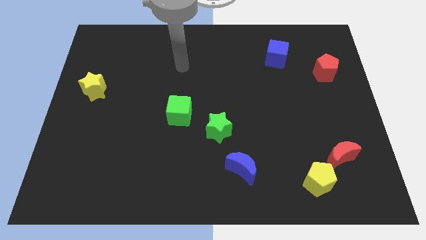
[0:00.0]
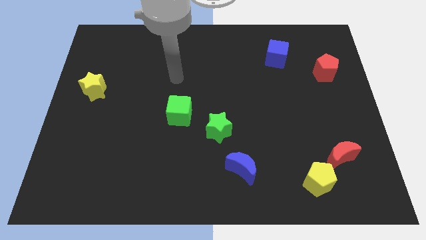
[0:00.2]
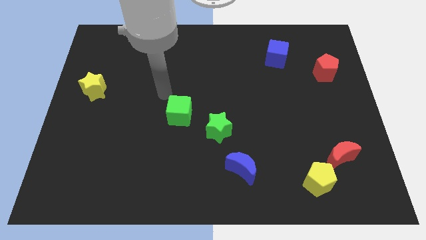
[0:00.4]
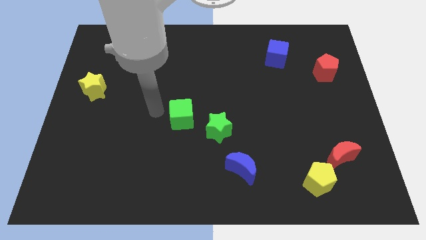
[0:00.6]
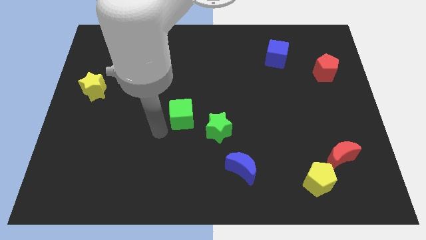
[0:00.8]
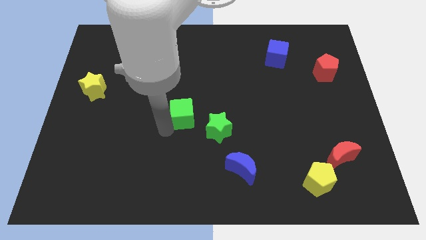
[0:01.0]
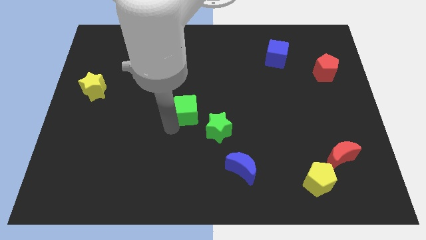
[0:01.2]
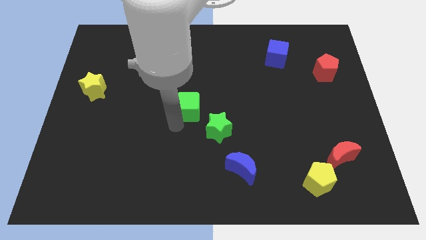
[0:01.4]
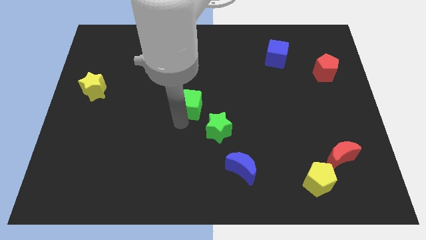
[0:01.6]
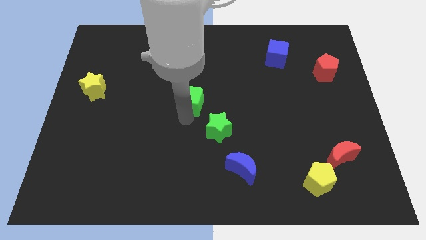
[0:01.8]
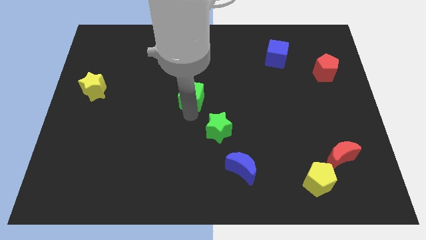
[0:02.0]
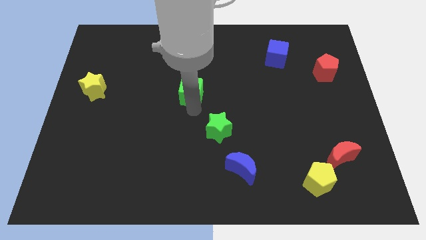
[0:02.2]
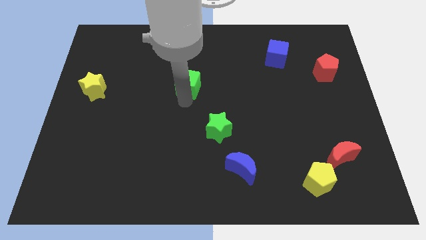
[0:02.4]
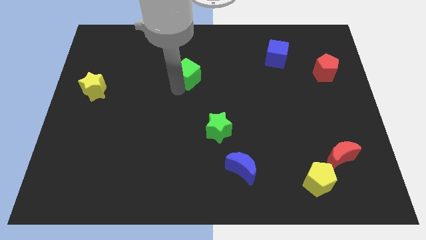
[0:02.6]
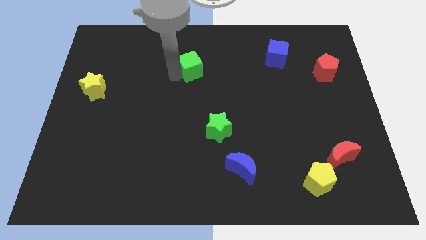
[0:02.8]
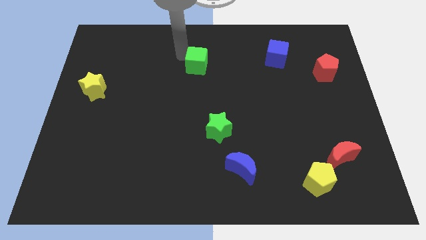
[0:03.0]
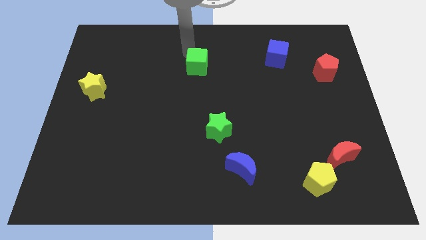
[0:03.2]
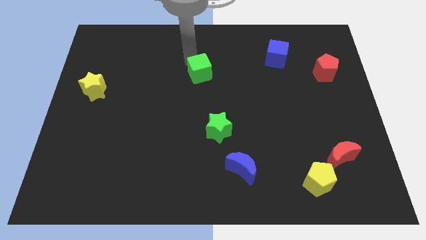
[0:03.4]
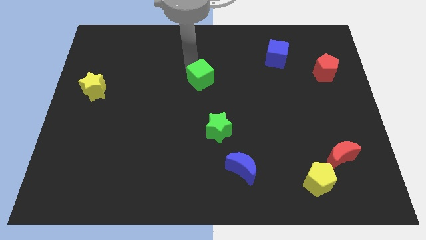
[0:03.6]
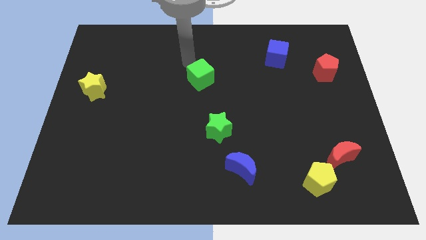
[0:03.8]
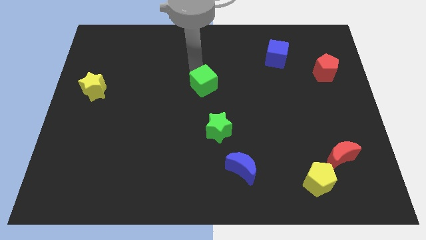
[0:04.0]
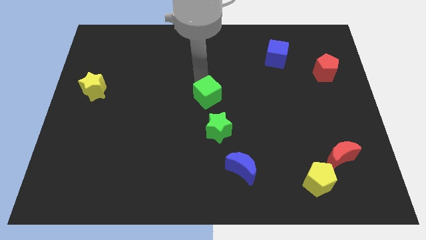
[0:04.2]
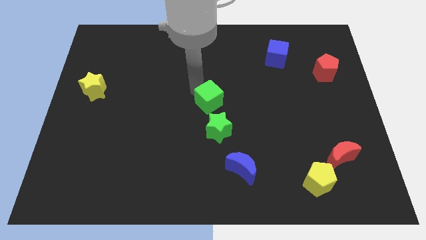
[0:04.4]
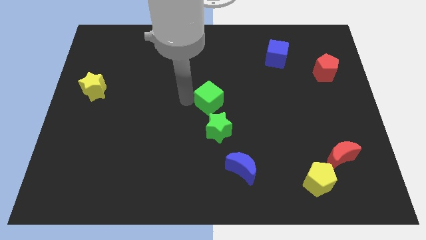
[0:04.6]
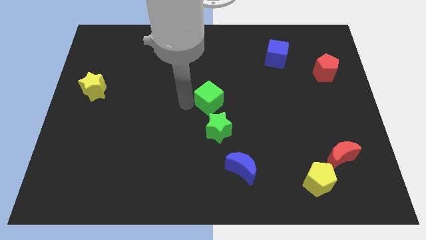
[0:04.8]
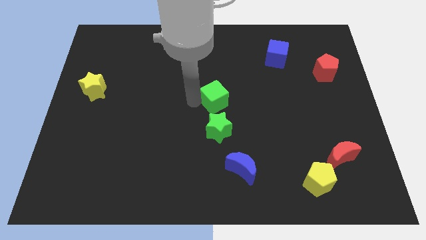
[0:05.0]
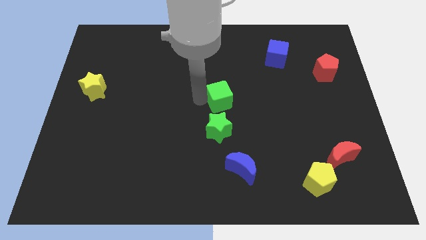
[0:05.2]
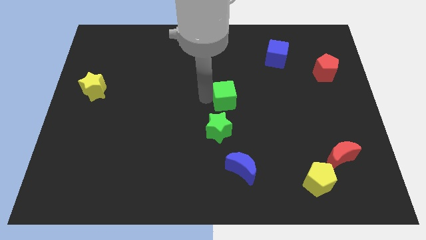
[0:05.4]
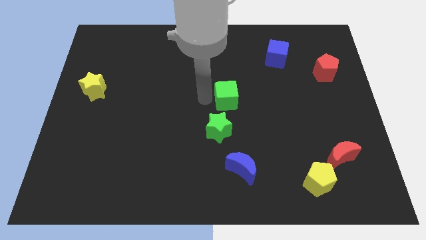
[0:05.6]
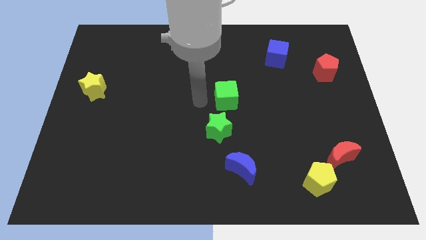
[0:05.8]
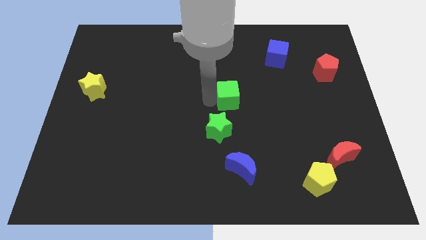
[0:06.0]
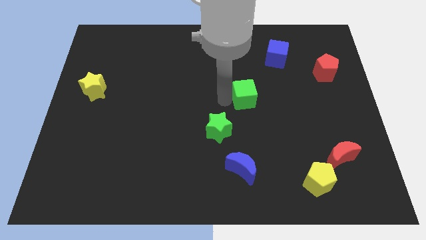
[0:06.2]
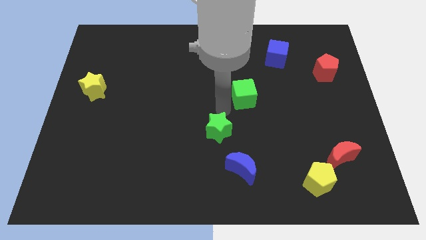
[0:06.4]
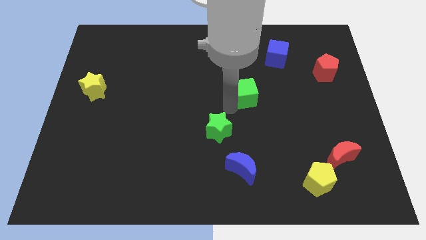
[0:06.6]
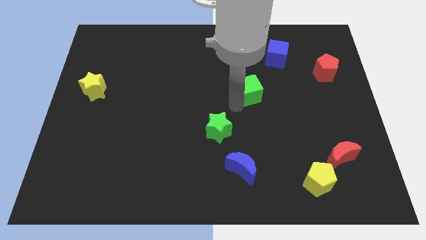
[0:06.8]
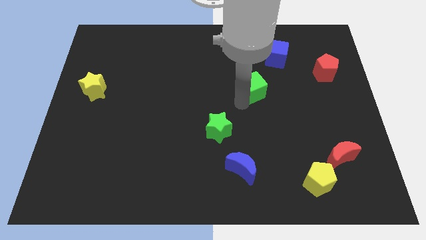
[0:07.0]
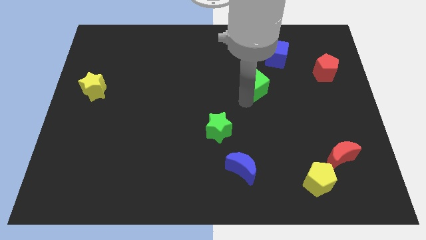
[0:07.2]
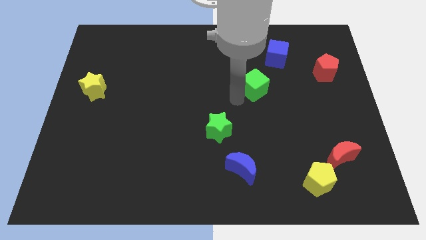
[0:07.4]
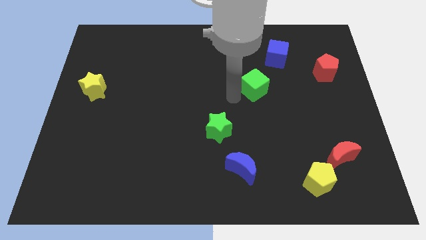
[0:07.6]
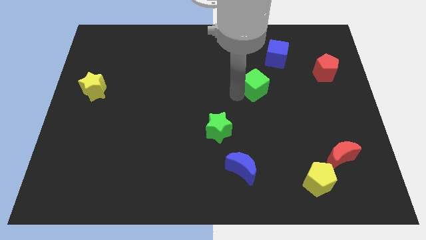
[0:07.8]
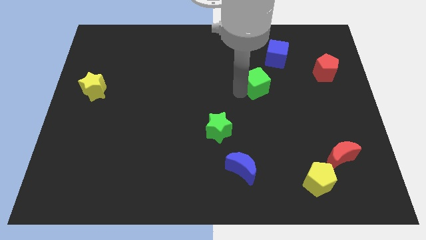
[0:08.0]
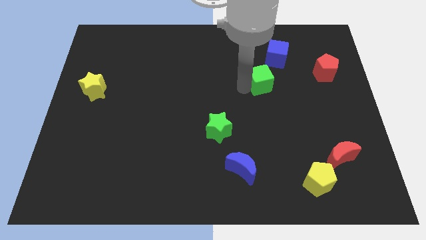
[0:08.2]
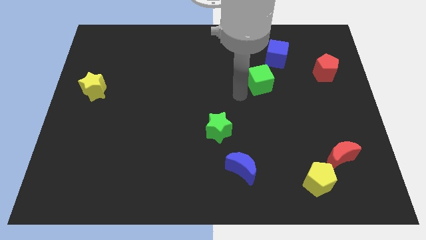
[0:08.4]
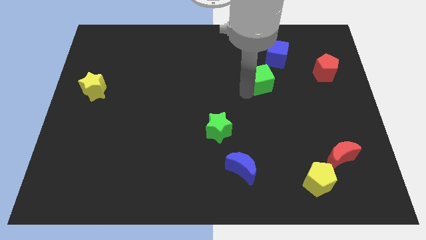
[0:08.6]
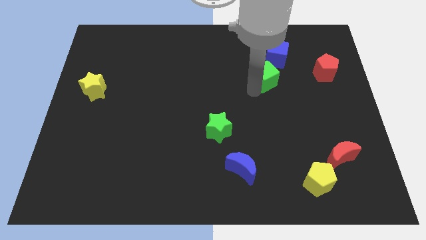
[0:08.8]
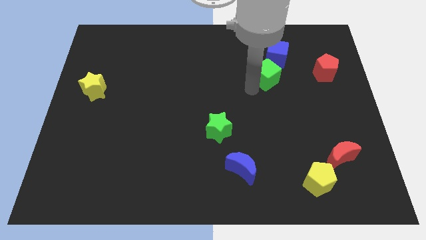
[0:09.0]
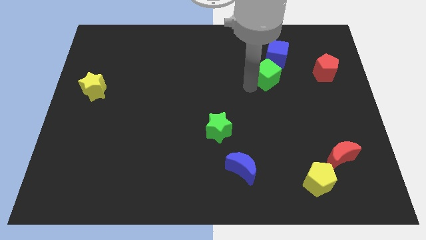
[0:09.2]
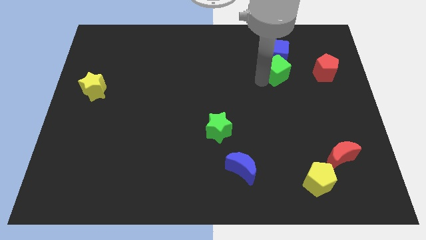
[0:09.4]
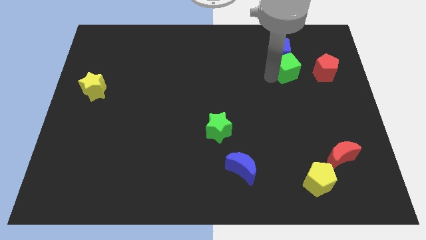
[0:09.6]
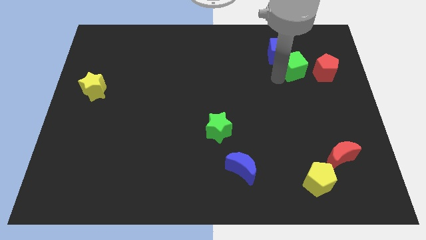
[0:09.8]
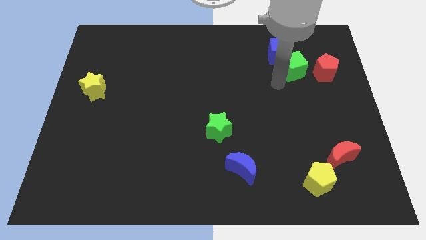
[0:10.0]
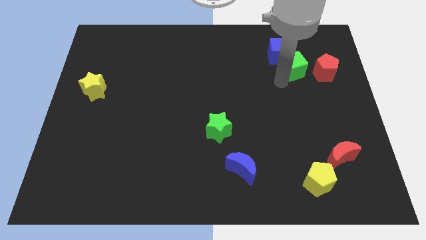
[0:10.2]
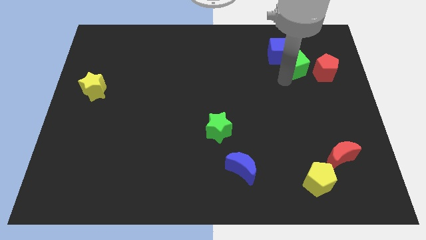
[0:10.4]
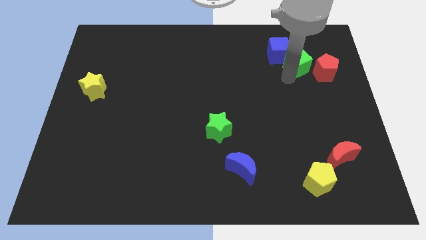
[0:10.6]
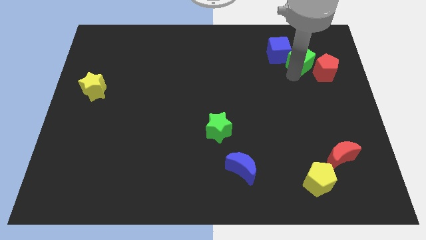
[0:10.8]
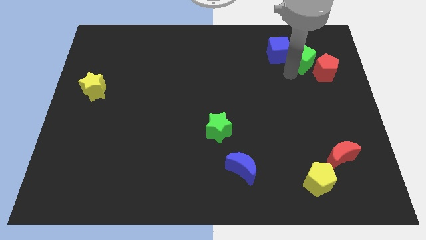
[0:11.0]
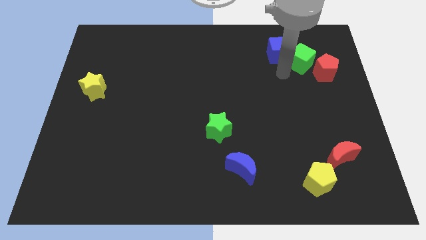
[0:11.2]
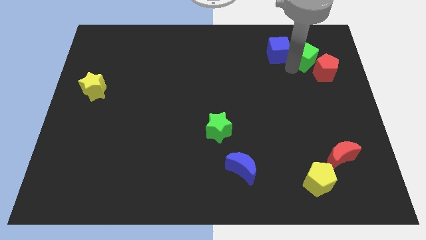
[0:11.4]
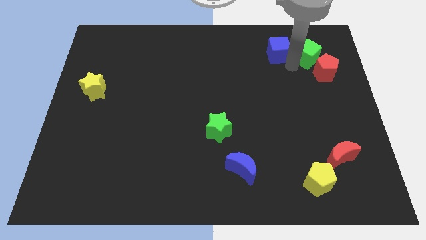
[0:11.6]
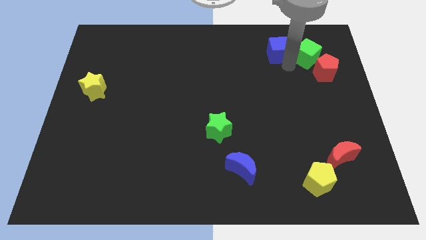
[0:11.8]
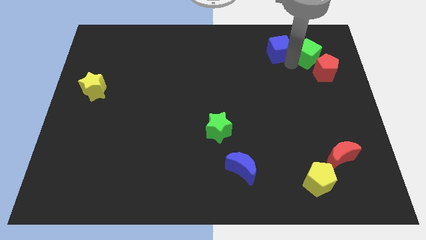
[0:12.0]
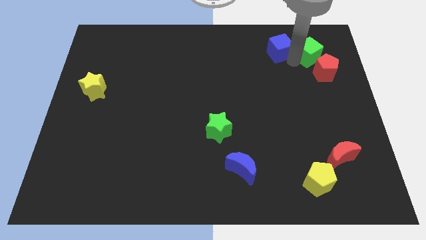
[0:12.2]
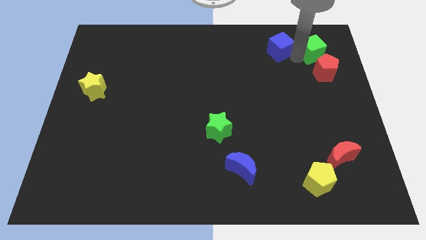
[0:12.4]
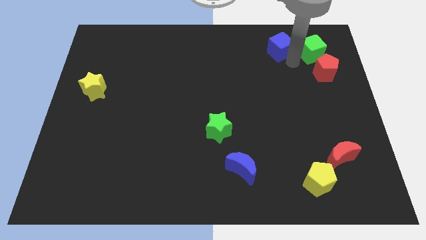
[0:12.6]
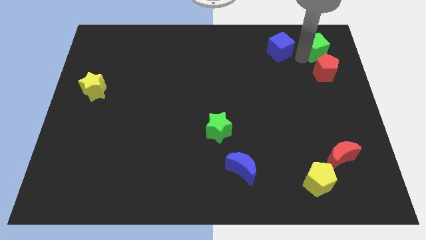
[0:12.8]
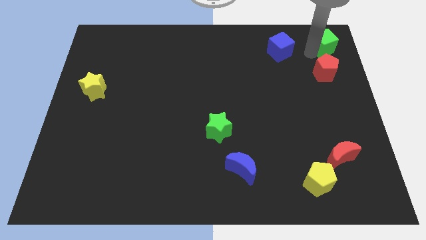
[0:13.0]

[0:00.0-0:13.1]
slide the green cube to the top right
